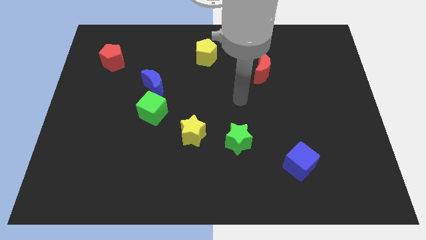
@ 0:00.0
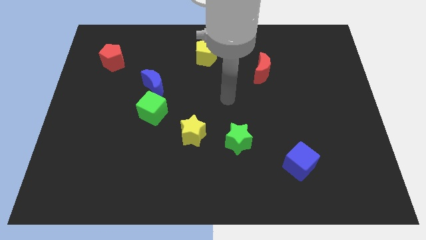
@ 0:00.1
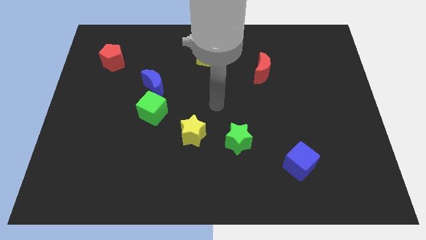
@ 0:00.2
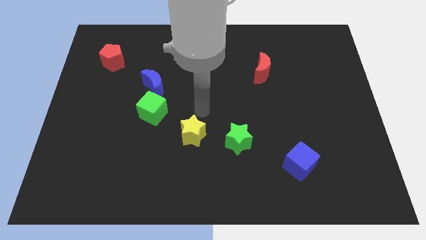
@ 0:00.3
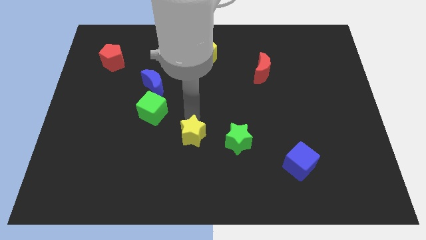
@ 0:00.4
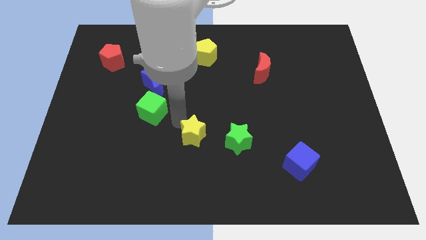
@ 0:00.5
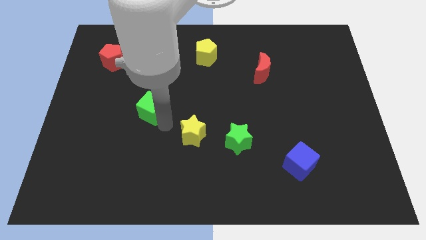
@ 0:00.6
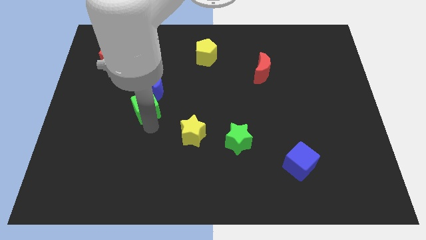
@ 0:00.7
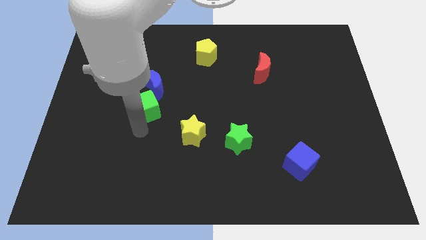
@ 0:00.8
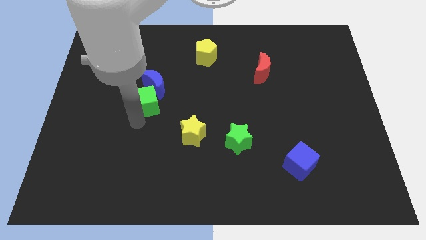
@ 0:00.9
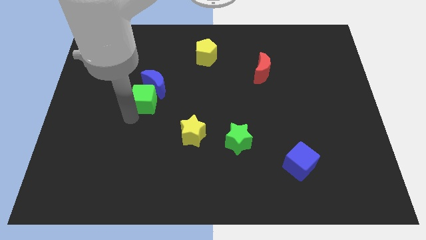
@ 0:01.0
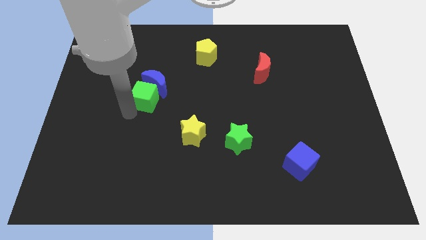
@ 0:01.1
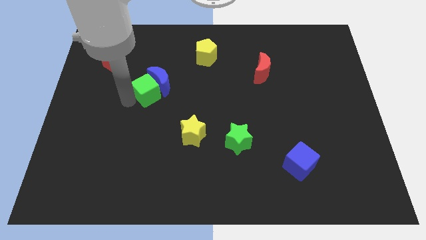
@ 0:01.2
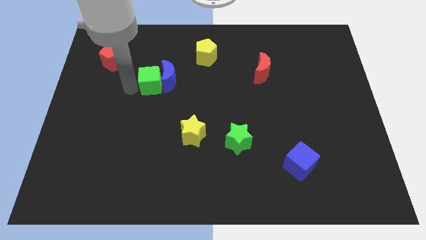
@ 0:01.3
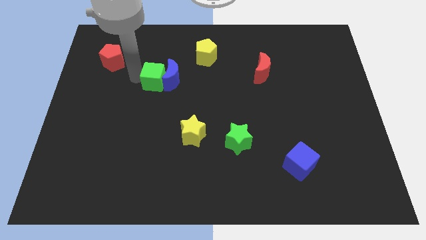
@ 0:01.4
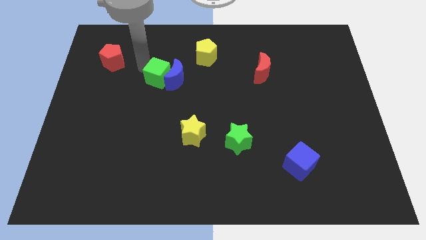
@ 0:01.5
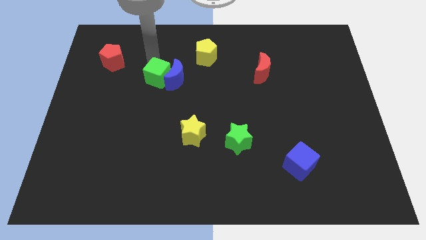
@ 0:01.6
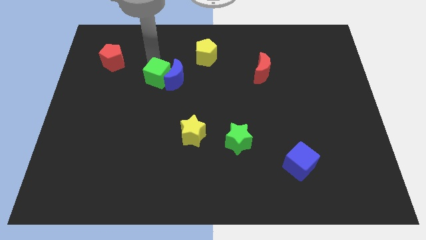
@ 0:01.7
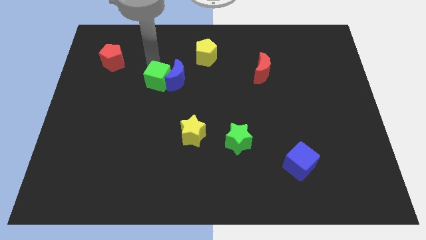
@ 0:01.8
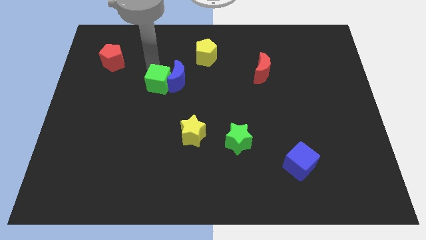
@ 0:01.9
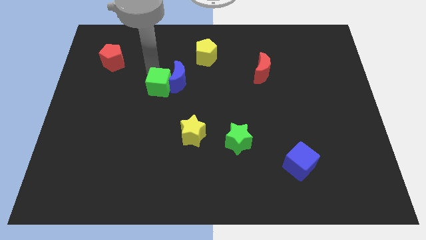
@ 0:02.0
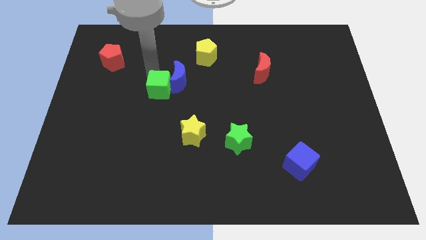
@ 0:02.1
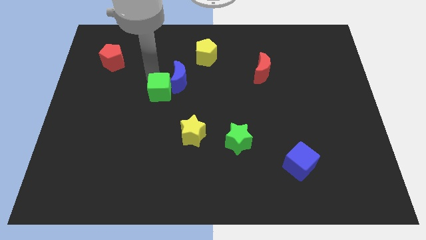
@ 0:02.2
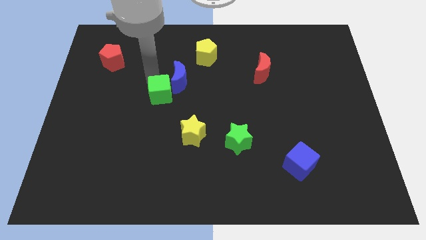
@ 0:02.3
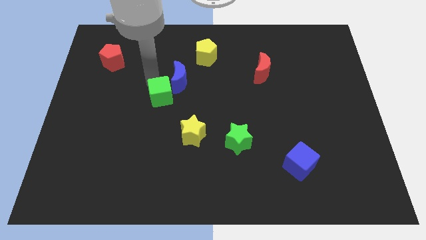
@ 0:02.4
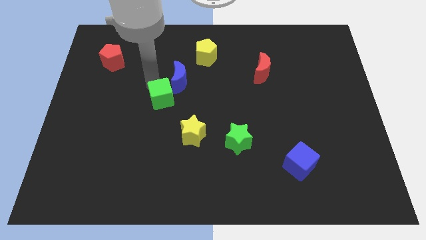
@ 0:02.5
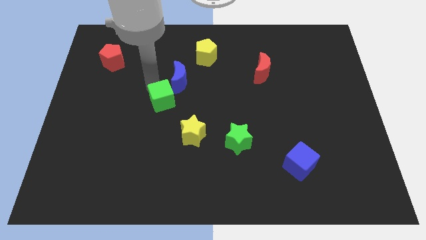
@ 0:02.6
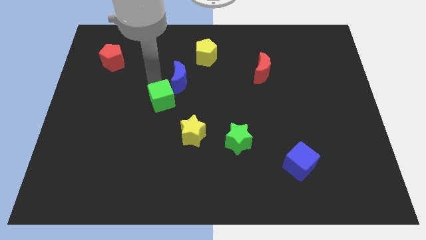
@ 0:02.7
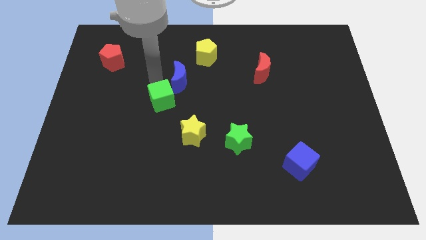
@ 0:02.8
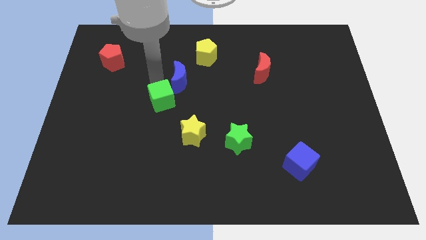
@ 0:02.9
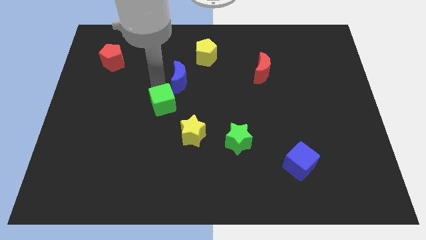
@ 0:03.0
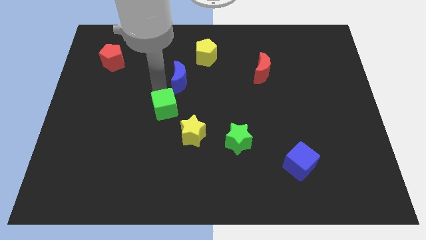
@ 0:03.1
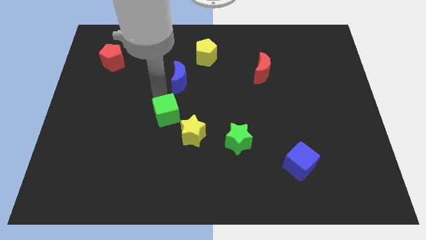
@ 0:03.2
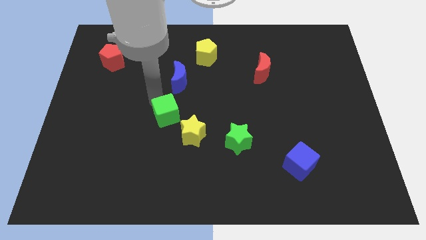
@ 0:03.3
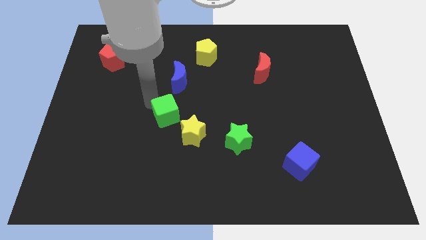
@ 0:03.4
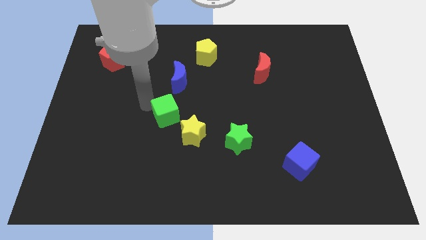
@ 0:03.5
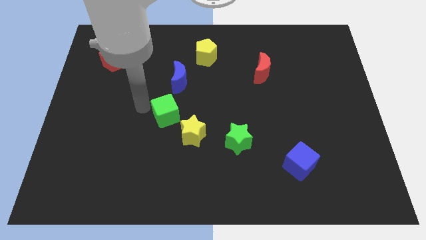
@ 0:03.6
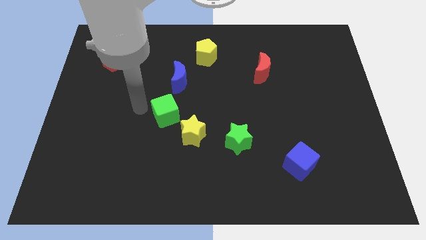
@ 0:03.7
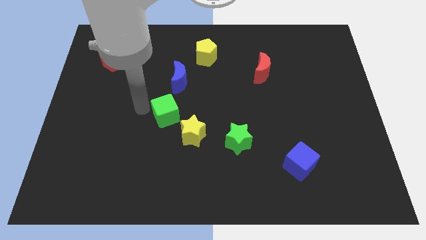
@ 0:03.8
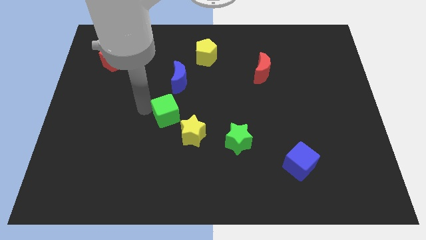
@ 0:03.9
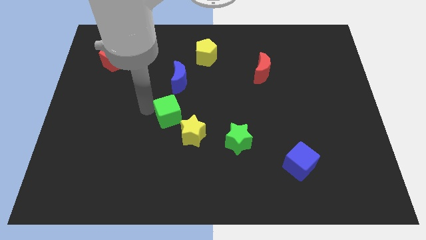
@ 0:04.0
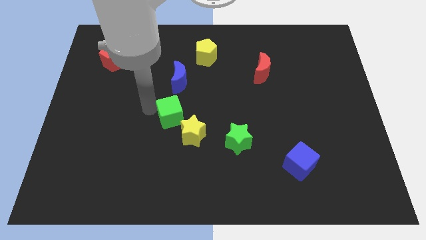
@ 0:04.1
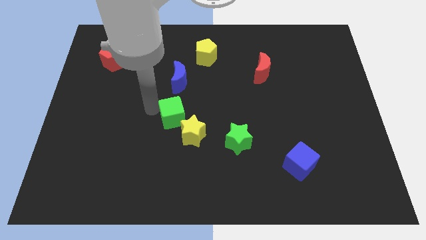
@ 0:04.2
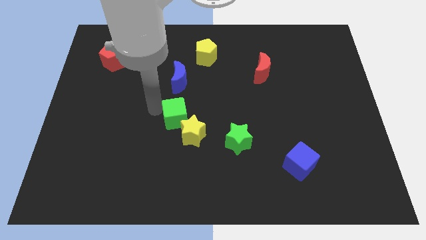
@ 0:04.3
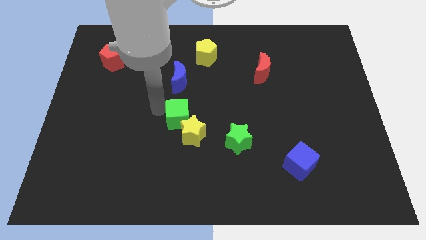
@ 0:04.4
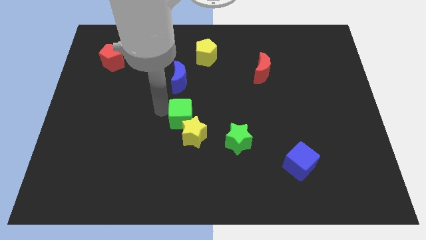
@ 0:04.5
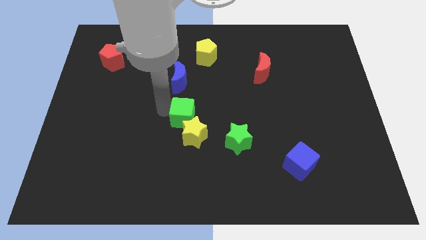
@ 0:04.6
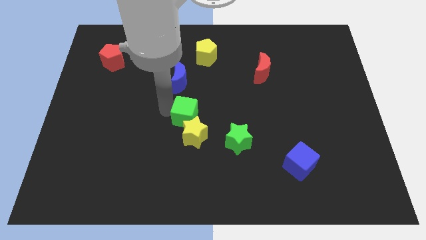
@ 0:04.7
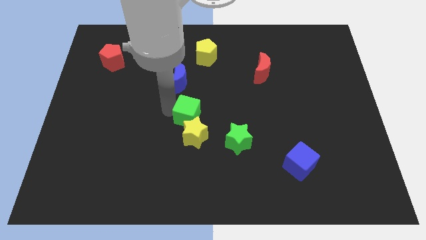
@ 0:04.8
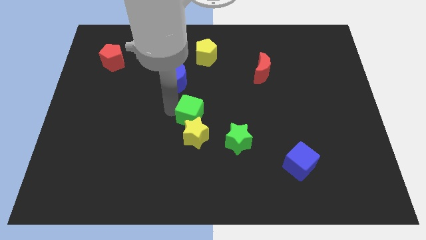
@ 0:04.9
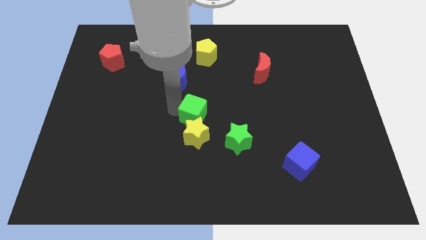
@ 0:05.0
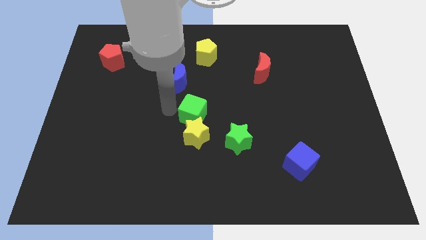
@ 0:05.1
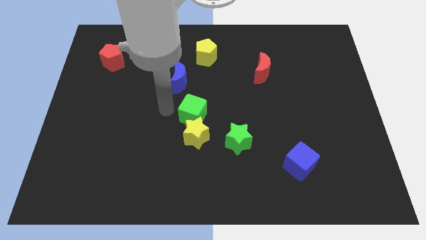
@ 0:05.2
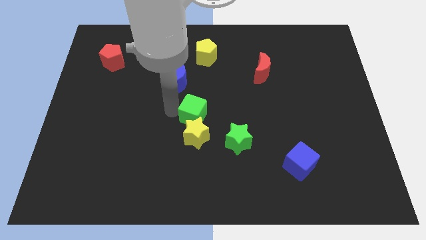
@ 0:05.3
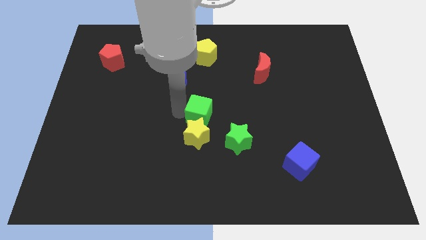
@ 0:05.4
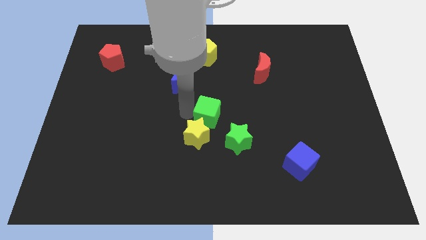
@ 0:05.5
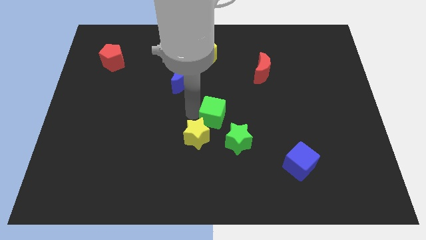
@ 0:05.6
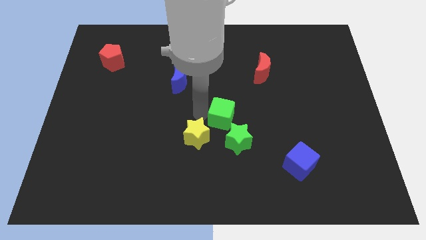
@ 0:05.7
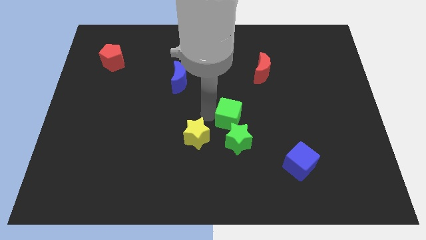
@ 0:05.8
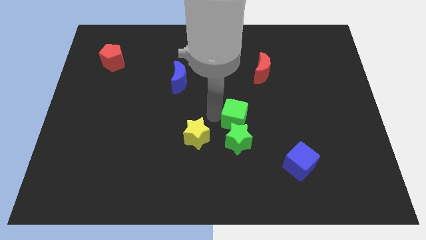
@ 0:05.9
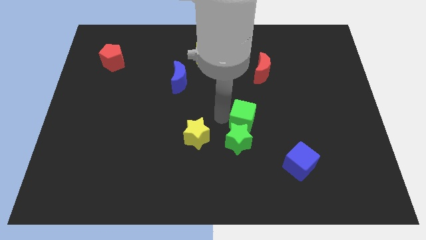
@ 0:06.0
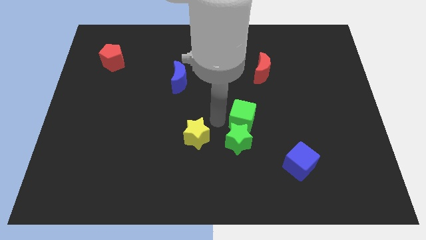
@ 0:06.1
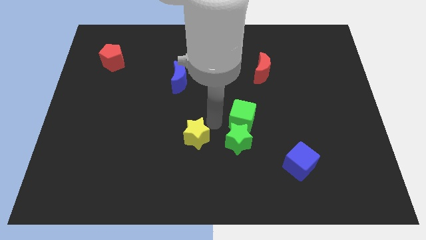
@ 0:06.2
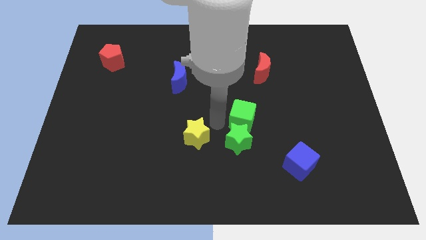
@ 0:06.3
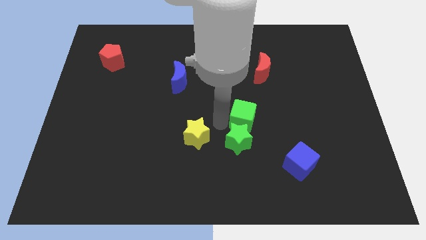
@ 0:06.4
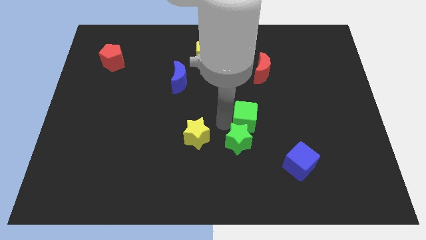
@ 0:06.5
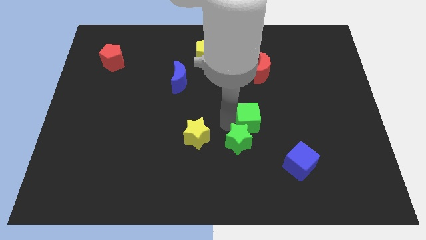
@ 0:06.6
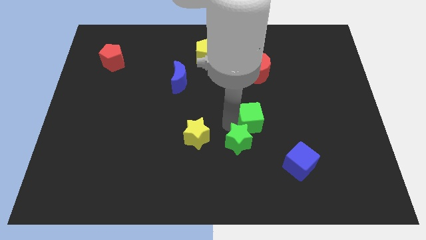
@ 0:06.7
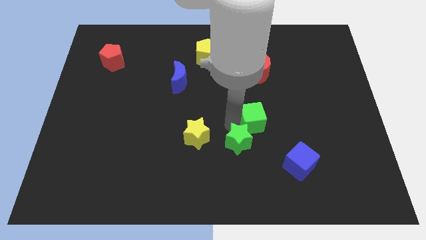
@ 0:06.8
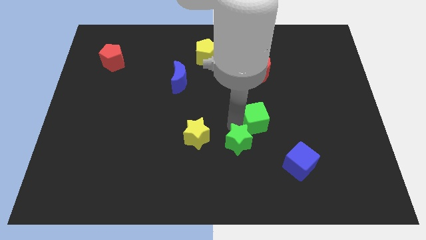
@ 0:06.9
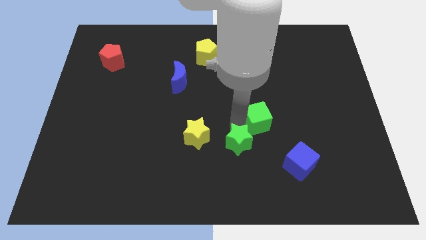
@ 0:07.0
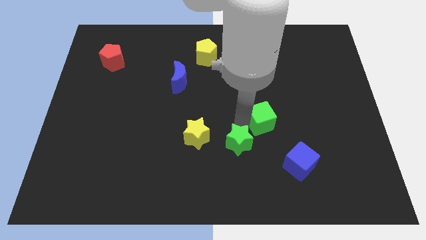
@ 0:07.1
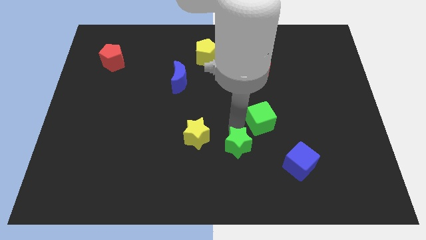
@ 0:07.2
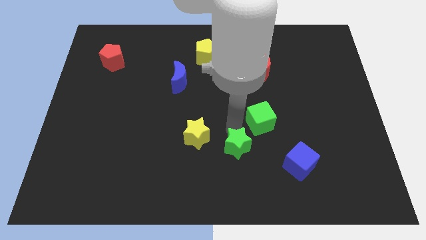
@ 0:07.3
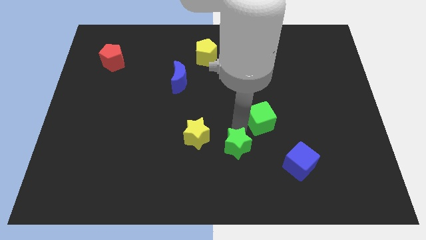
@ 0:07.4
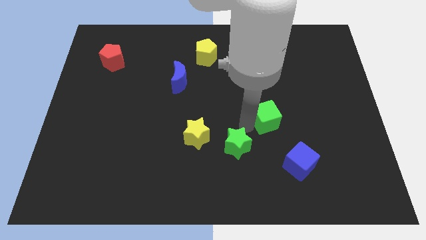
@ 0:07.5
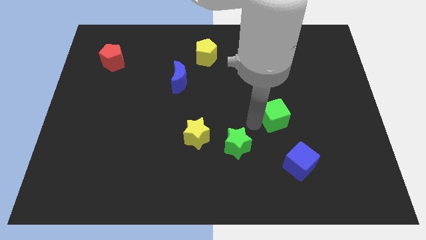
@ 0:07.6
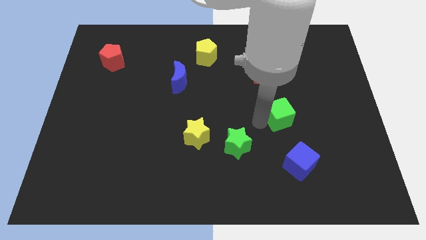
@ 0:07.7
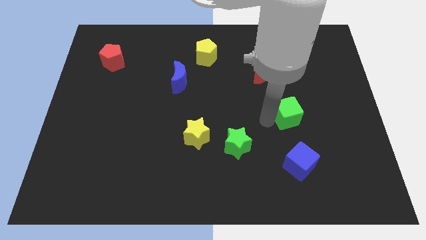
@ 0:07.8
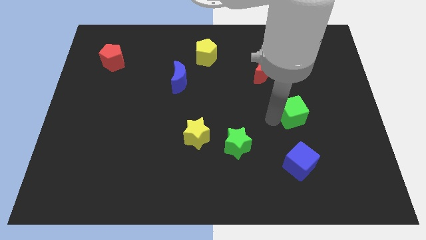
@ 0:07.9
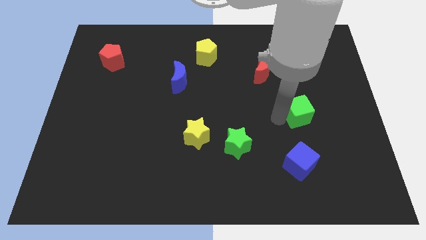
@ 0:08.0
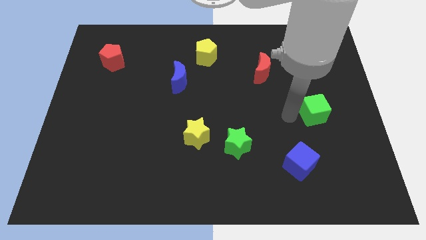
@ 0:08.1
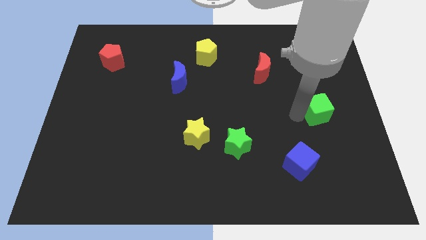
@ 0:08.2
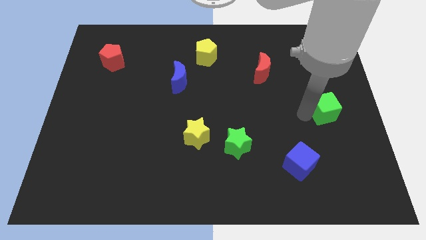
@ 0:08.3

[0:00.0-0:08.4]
move the green cube to the center right
